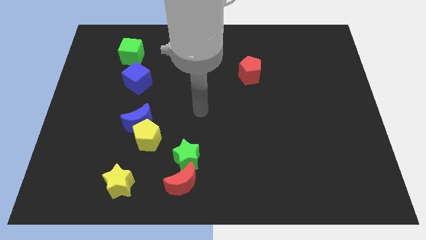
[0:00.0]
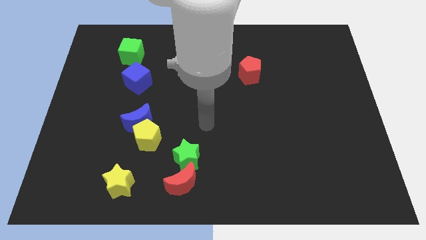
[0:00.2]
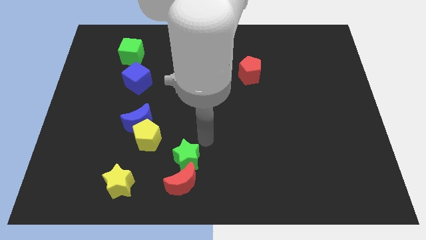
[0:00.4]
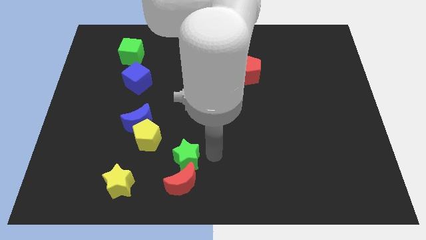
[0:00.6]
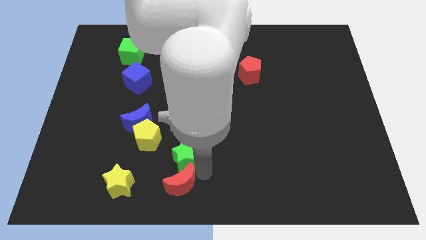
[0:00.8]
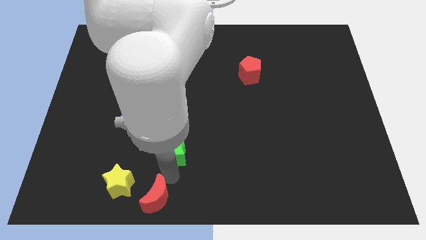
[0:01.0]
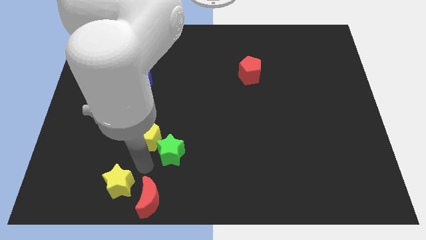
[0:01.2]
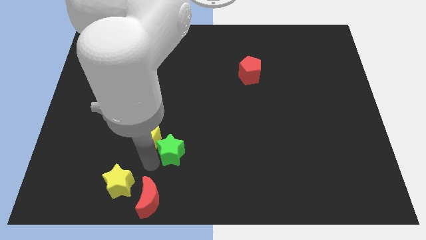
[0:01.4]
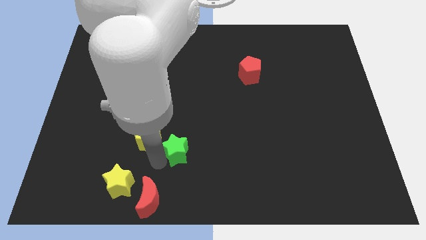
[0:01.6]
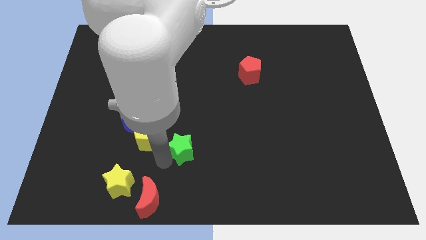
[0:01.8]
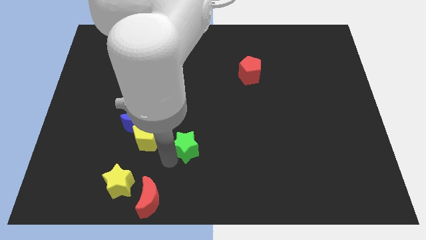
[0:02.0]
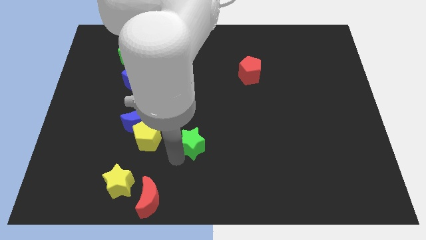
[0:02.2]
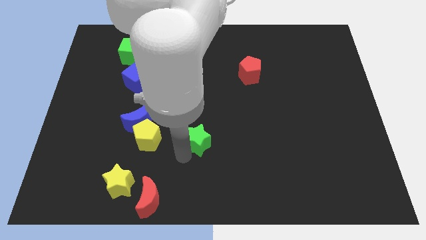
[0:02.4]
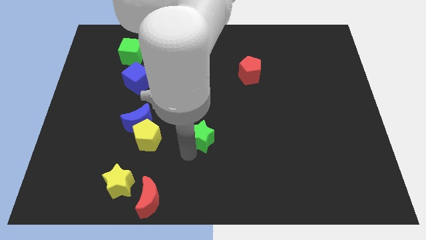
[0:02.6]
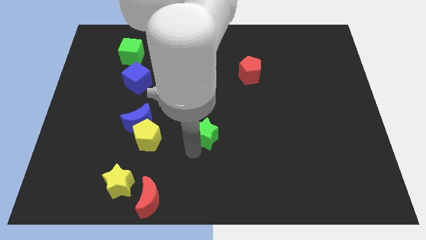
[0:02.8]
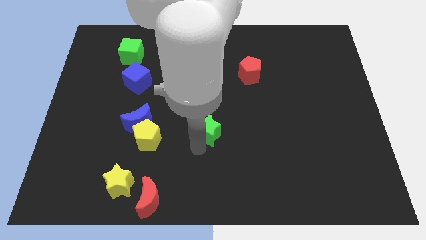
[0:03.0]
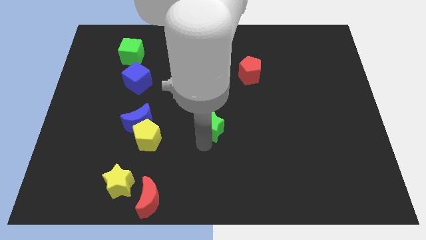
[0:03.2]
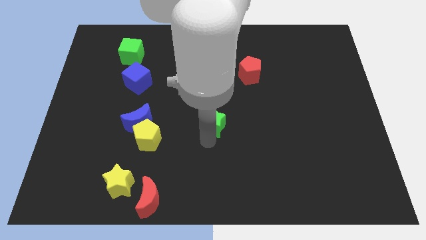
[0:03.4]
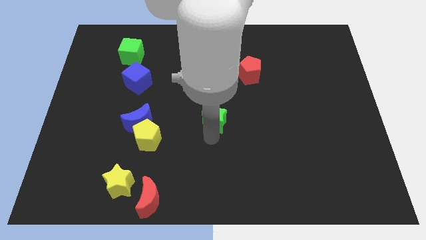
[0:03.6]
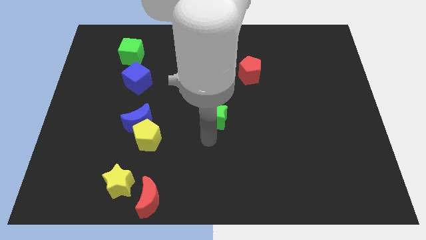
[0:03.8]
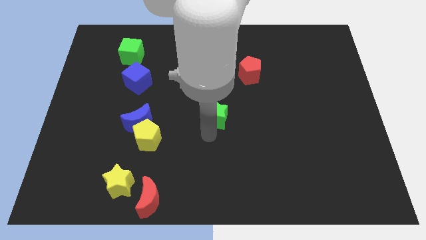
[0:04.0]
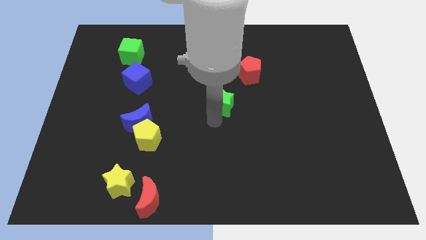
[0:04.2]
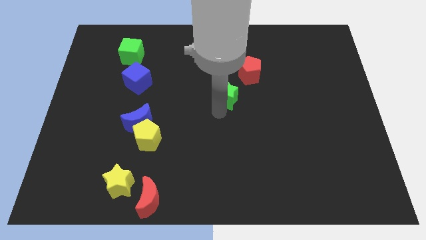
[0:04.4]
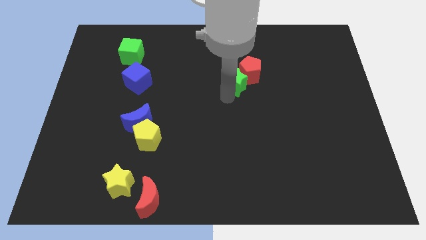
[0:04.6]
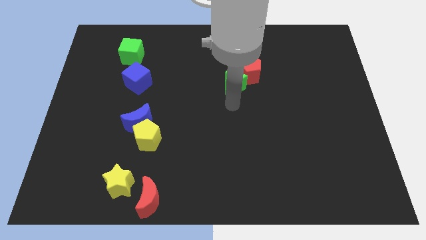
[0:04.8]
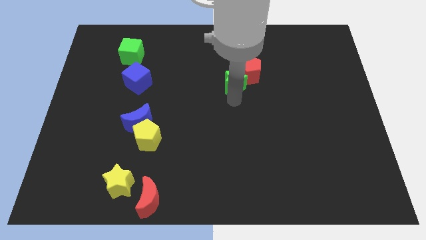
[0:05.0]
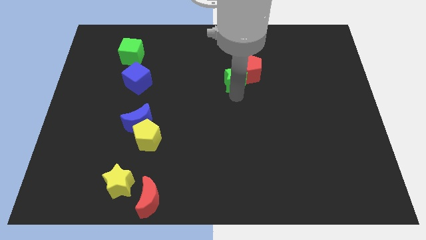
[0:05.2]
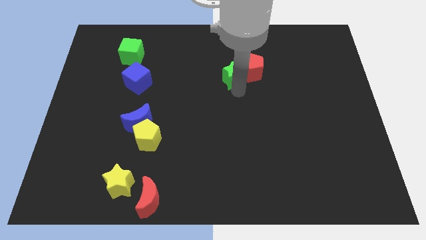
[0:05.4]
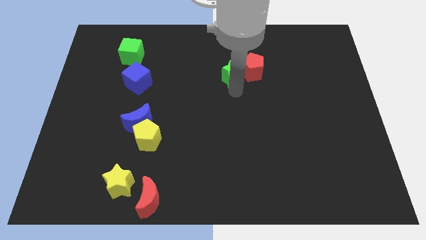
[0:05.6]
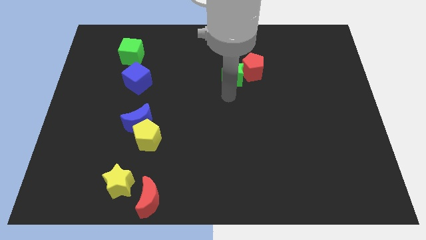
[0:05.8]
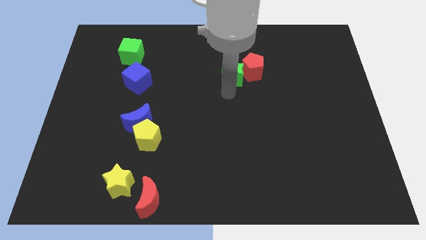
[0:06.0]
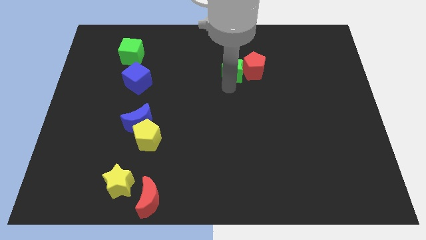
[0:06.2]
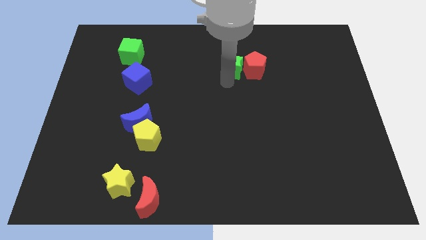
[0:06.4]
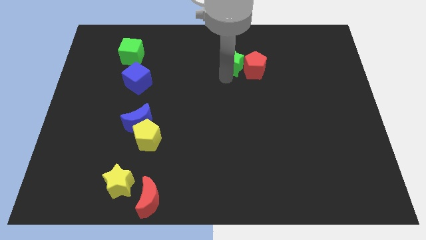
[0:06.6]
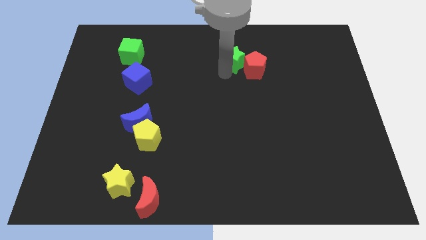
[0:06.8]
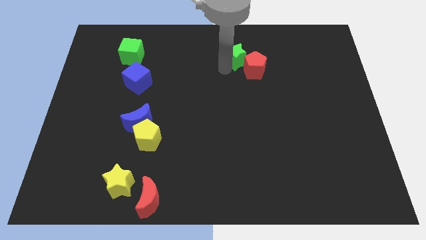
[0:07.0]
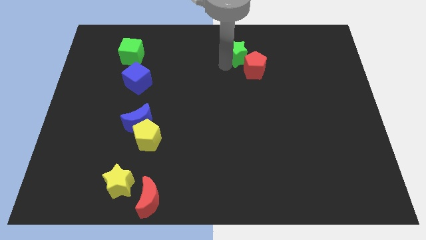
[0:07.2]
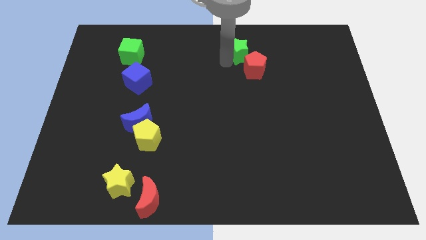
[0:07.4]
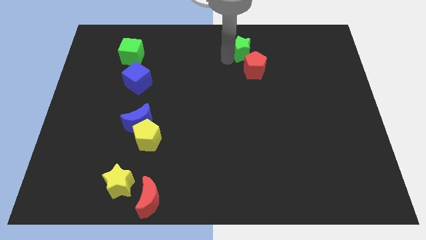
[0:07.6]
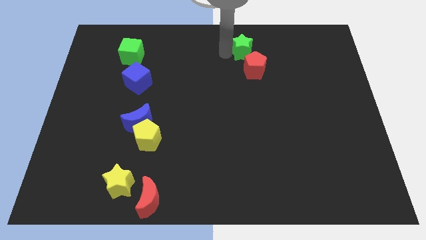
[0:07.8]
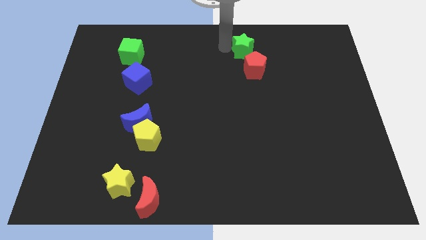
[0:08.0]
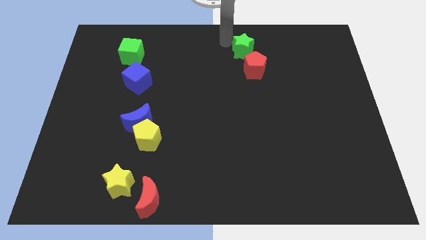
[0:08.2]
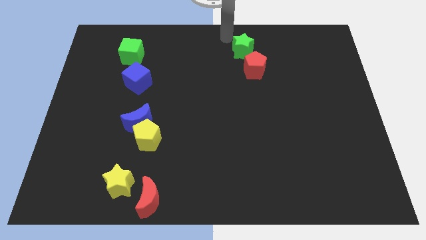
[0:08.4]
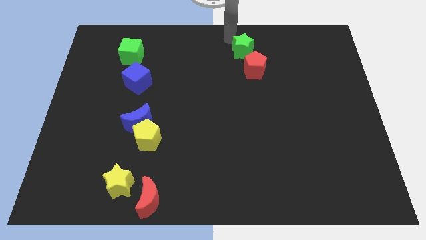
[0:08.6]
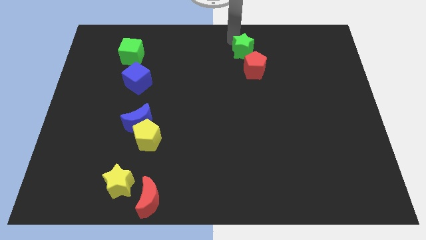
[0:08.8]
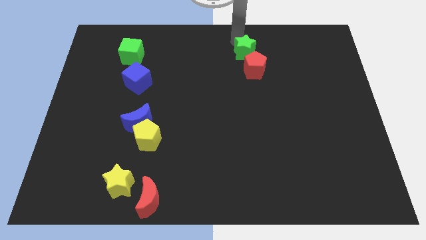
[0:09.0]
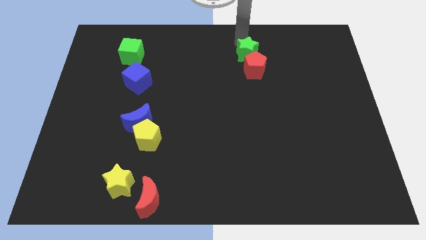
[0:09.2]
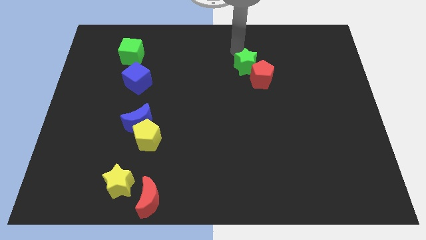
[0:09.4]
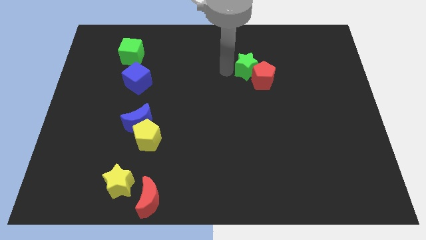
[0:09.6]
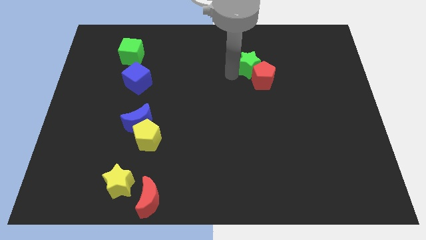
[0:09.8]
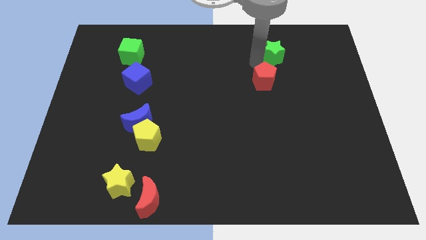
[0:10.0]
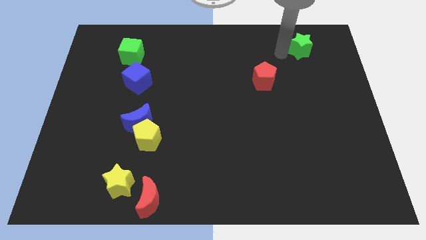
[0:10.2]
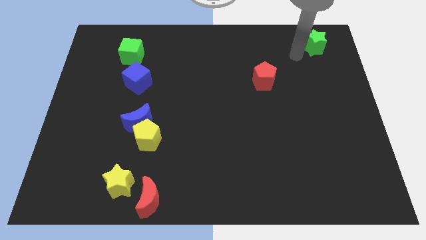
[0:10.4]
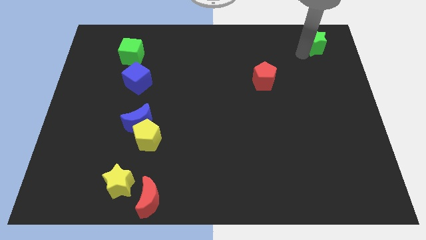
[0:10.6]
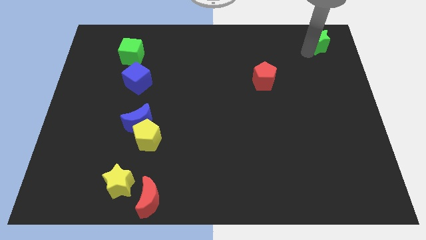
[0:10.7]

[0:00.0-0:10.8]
push the green star to the upper right corner

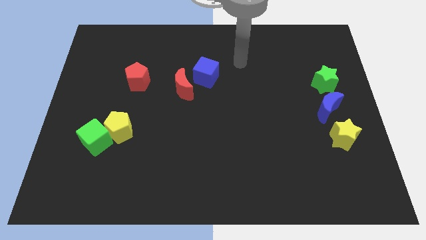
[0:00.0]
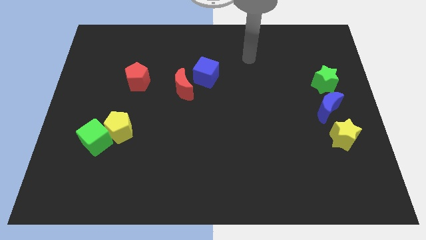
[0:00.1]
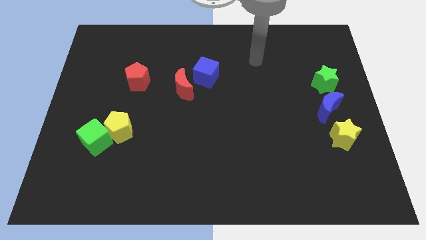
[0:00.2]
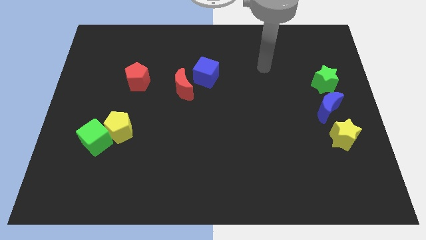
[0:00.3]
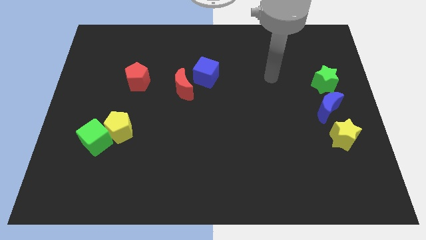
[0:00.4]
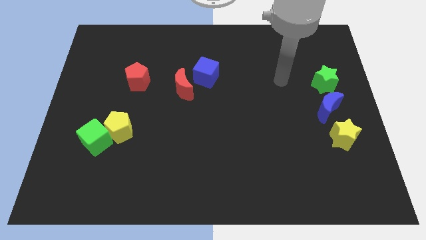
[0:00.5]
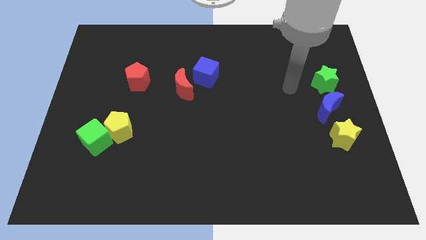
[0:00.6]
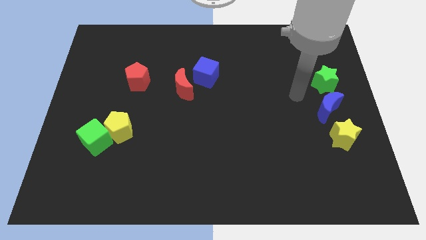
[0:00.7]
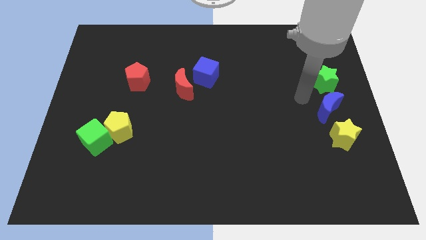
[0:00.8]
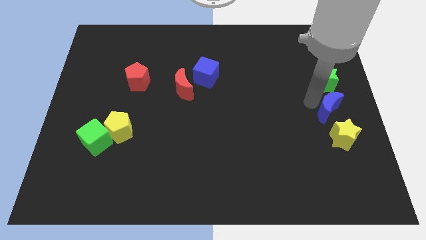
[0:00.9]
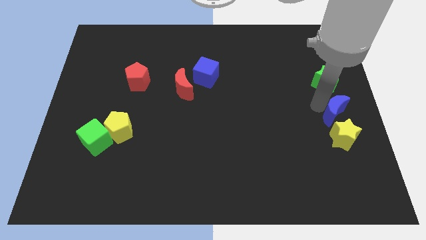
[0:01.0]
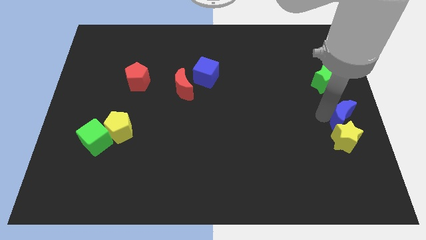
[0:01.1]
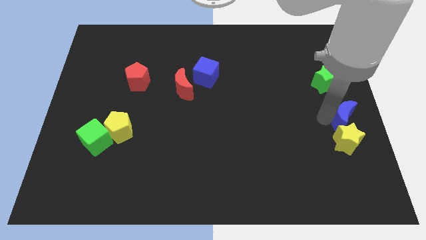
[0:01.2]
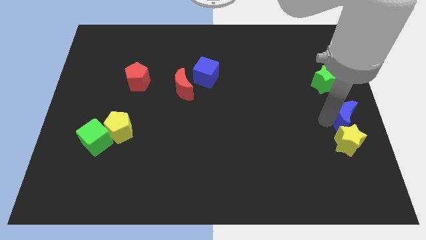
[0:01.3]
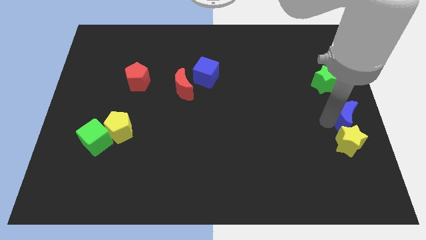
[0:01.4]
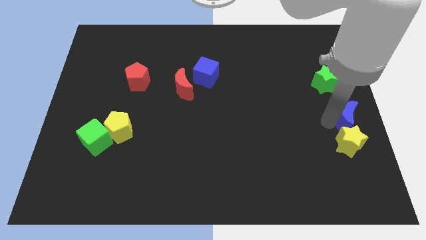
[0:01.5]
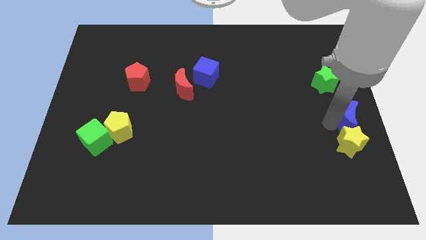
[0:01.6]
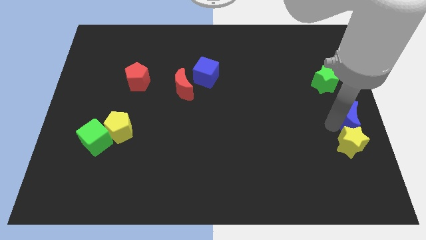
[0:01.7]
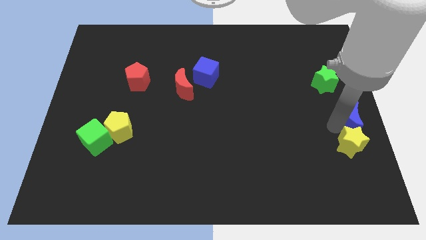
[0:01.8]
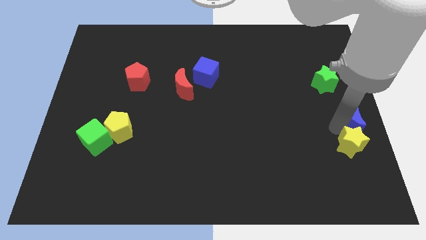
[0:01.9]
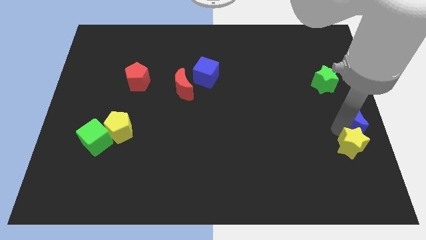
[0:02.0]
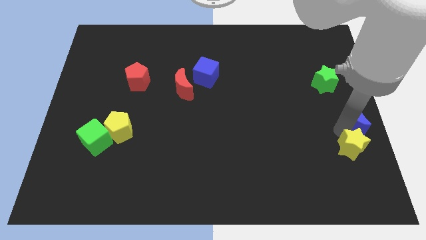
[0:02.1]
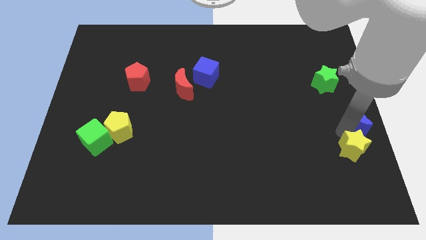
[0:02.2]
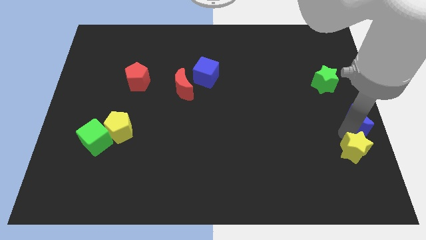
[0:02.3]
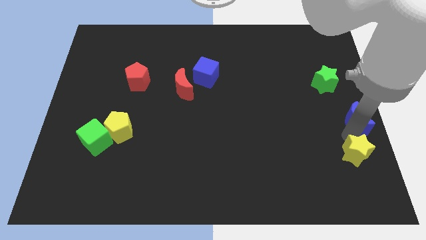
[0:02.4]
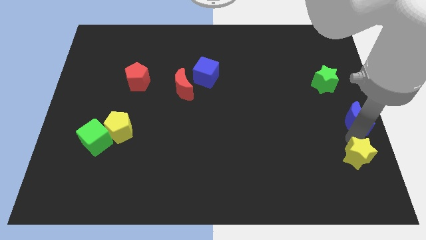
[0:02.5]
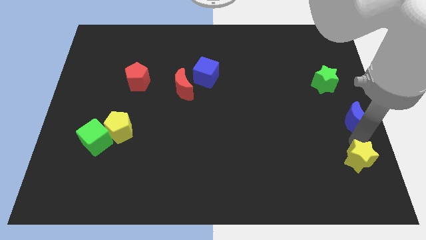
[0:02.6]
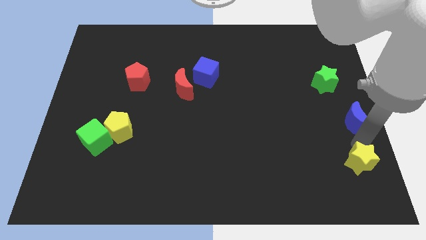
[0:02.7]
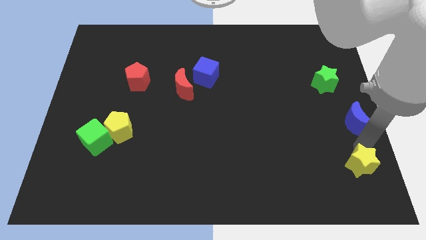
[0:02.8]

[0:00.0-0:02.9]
push the yellow star to the lower right corner
